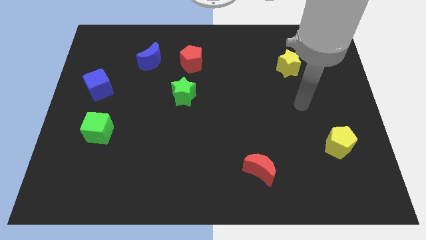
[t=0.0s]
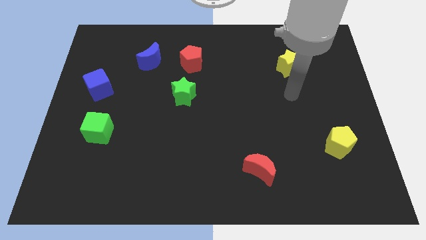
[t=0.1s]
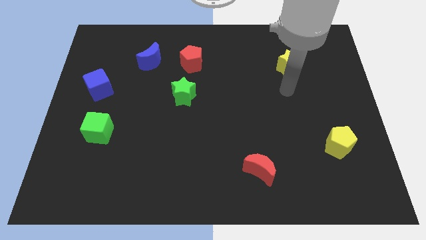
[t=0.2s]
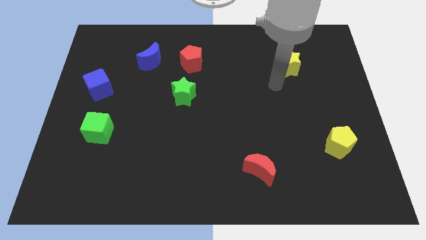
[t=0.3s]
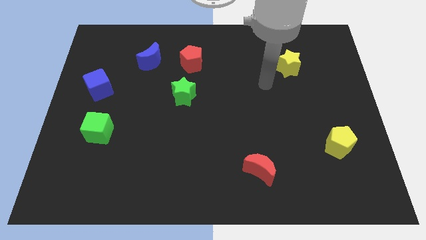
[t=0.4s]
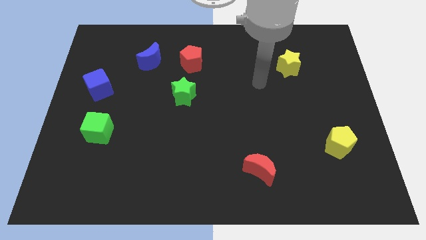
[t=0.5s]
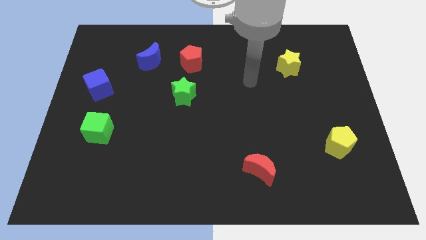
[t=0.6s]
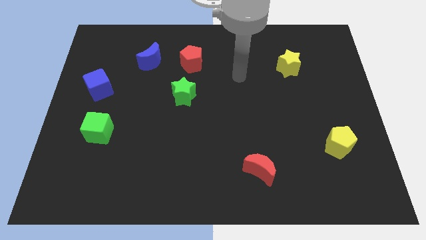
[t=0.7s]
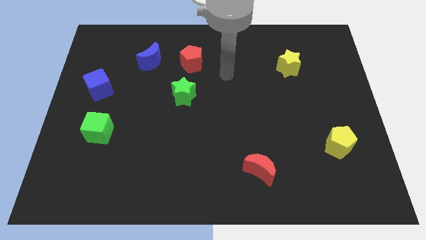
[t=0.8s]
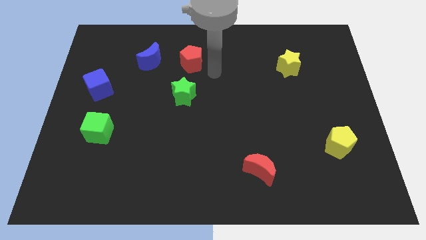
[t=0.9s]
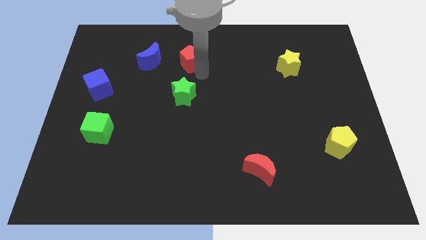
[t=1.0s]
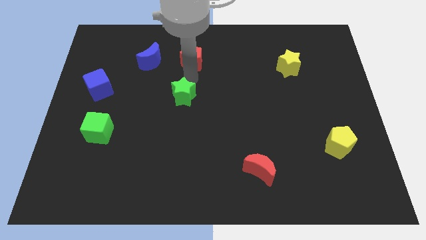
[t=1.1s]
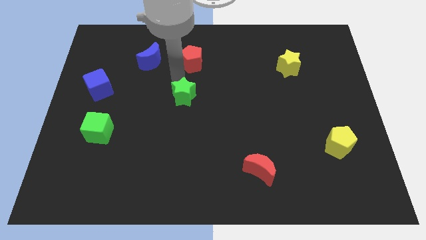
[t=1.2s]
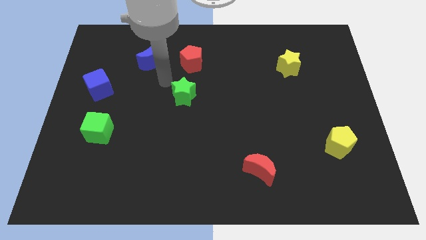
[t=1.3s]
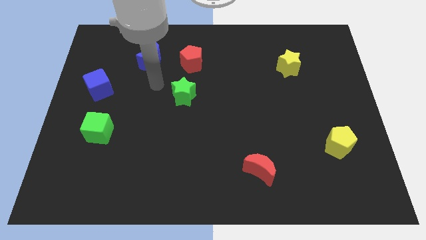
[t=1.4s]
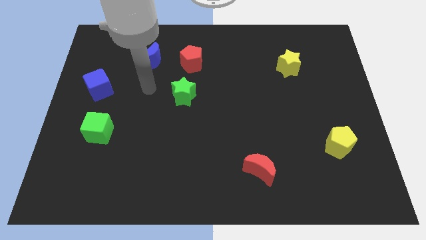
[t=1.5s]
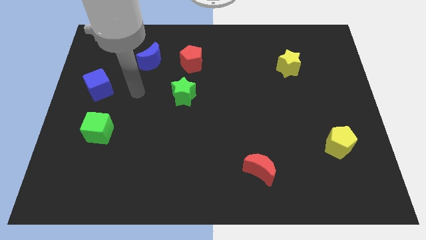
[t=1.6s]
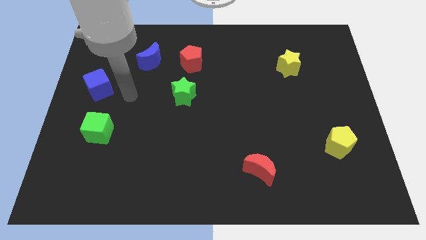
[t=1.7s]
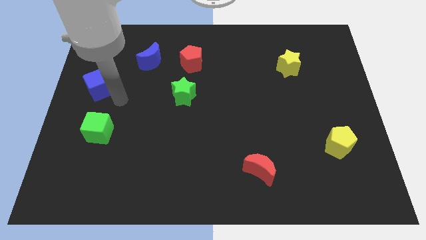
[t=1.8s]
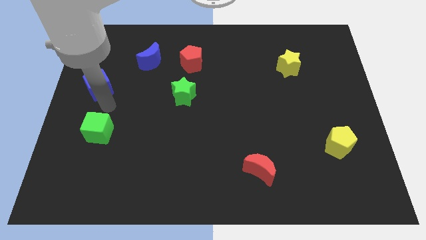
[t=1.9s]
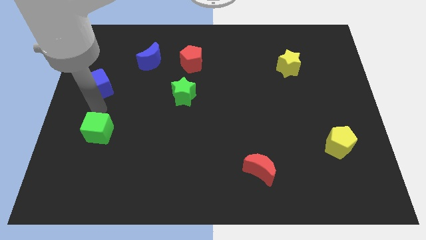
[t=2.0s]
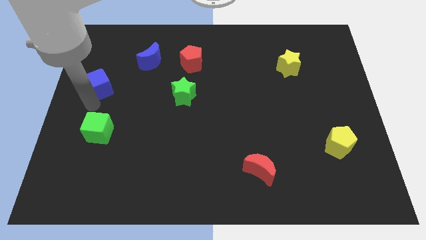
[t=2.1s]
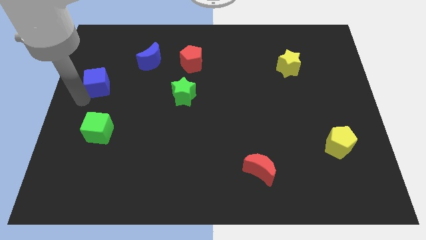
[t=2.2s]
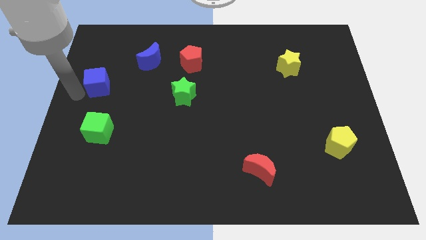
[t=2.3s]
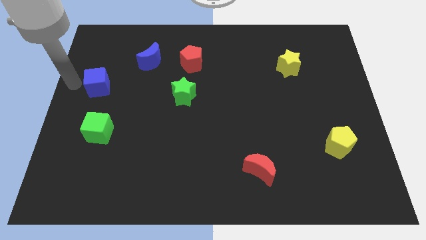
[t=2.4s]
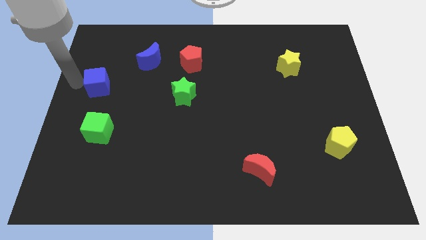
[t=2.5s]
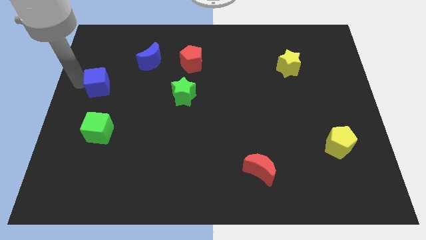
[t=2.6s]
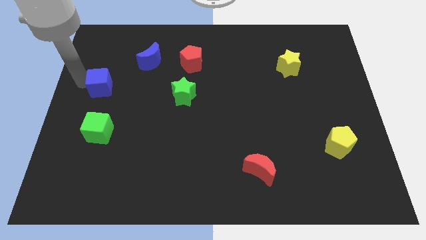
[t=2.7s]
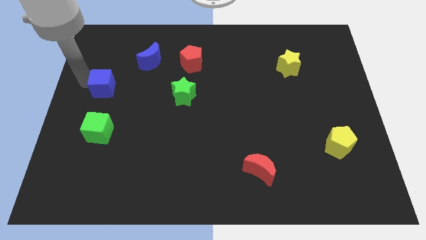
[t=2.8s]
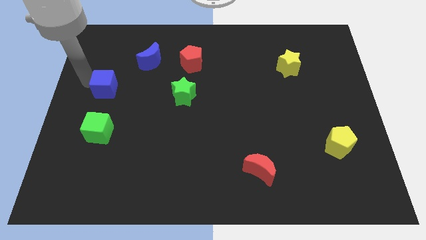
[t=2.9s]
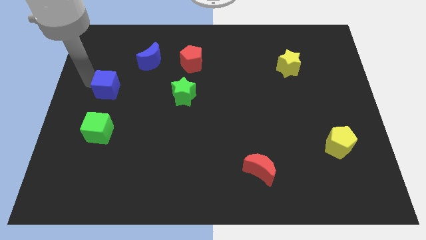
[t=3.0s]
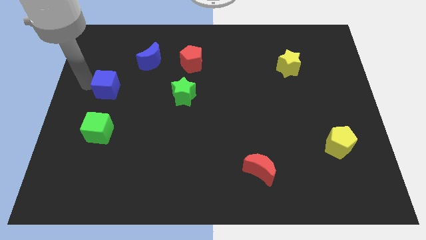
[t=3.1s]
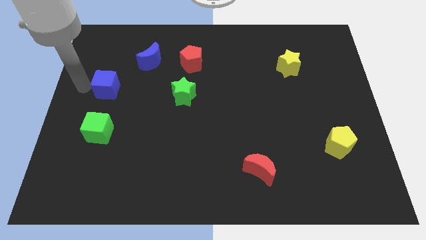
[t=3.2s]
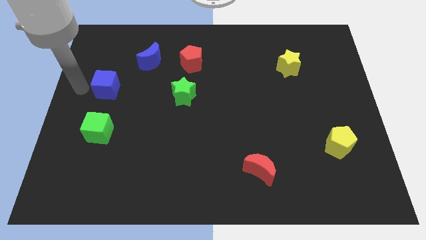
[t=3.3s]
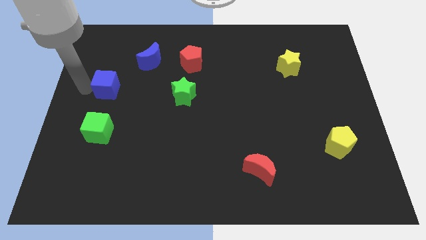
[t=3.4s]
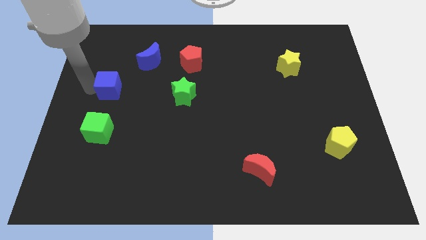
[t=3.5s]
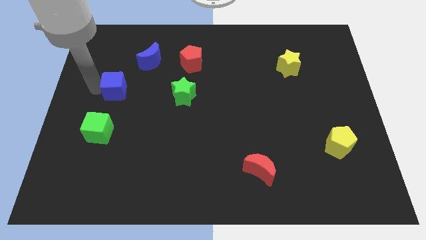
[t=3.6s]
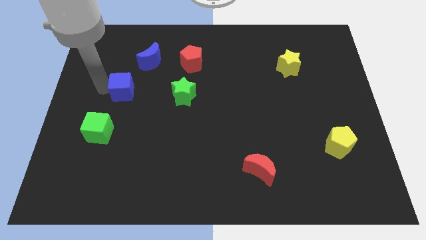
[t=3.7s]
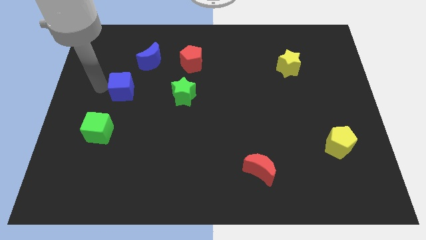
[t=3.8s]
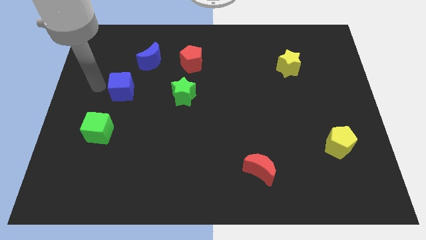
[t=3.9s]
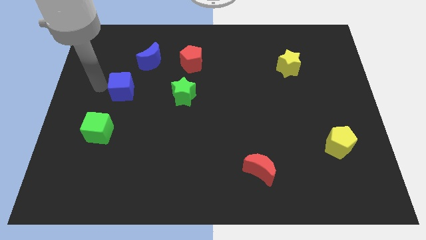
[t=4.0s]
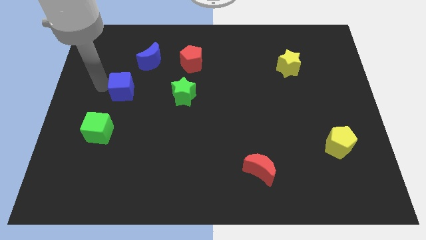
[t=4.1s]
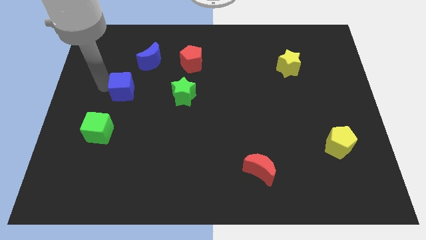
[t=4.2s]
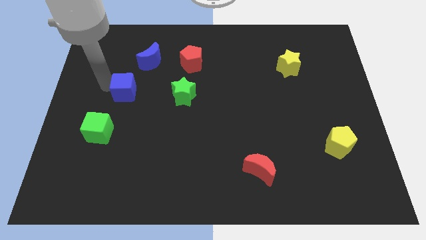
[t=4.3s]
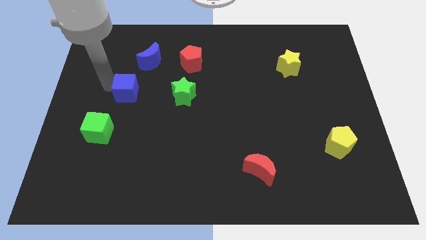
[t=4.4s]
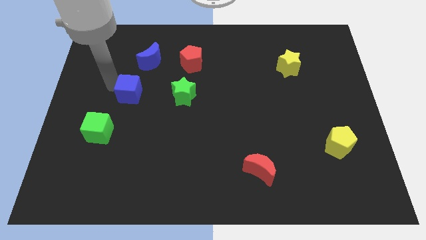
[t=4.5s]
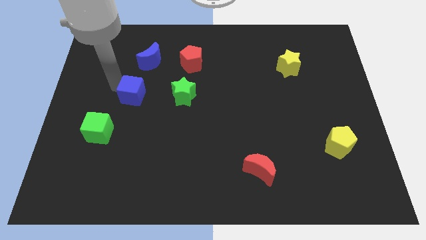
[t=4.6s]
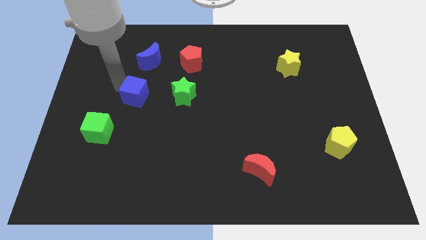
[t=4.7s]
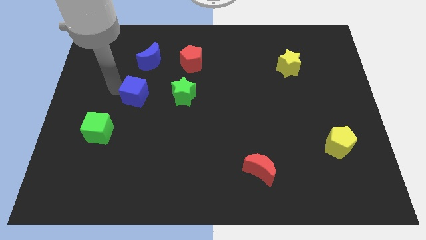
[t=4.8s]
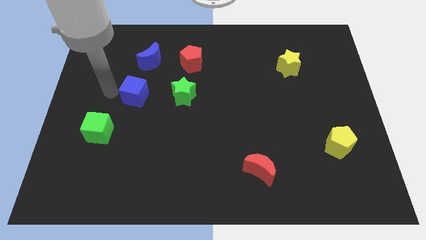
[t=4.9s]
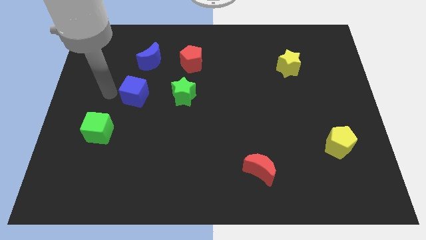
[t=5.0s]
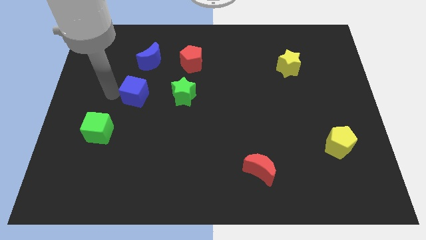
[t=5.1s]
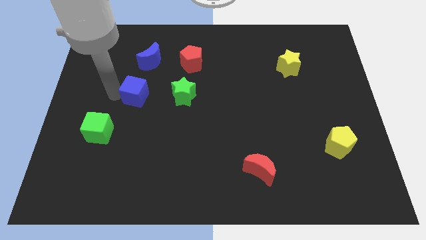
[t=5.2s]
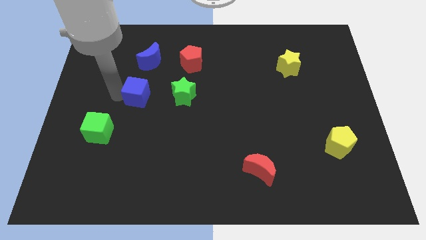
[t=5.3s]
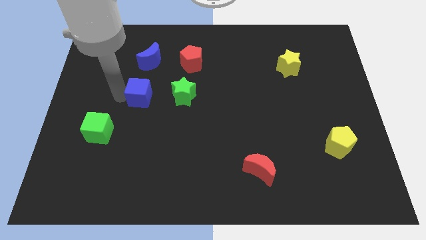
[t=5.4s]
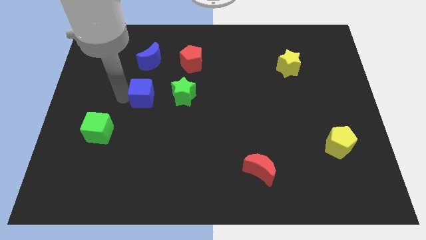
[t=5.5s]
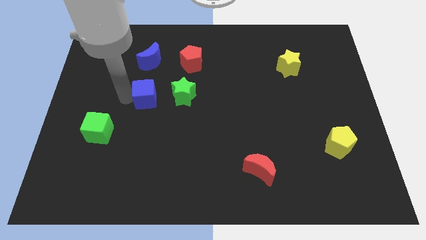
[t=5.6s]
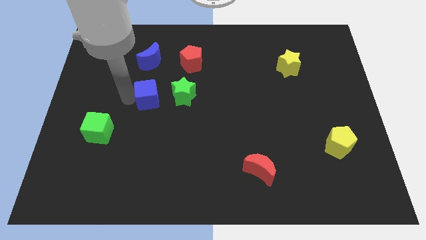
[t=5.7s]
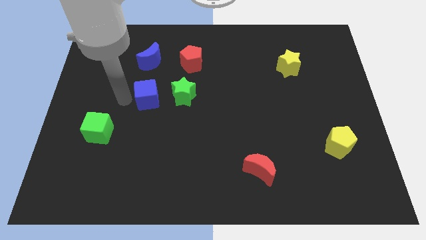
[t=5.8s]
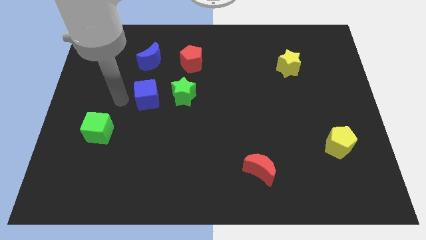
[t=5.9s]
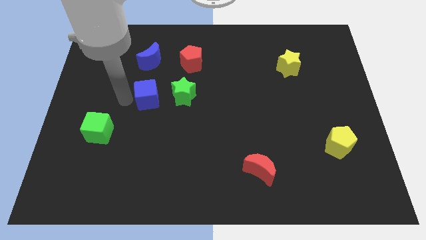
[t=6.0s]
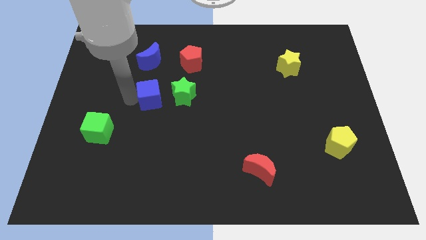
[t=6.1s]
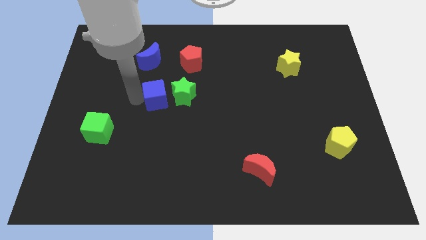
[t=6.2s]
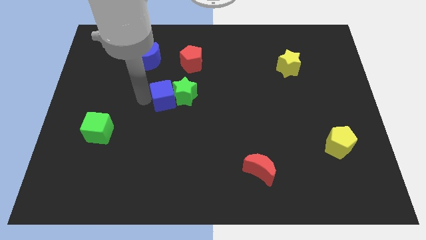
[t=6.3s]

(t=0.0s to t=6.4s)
move the blue cube next to the green star
